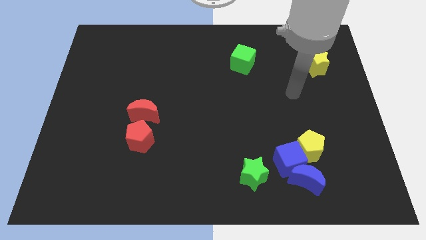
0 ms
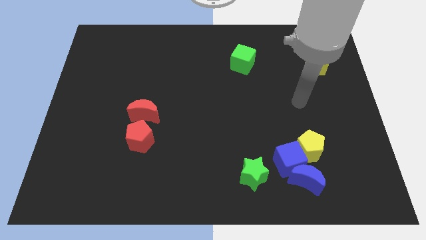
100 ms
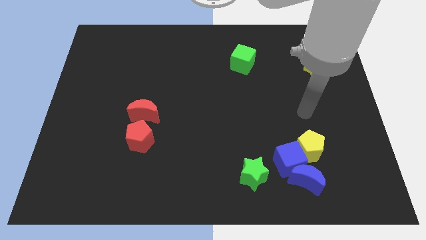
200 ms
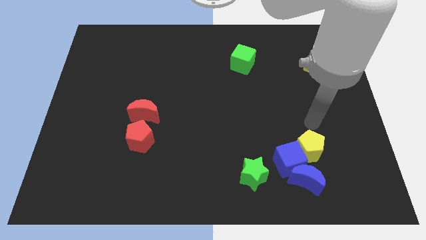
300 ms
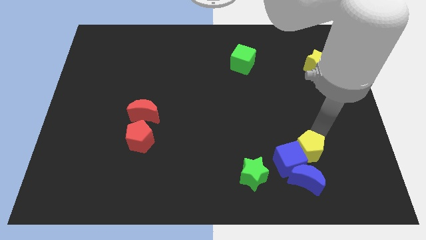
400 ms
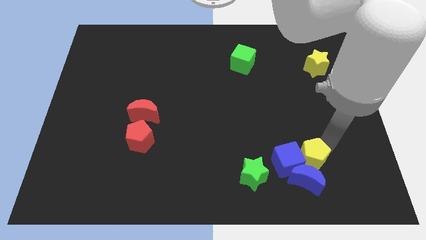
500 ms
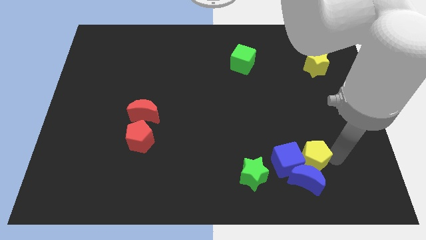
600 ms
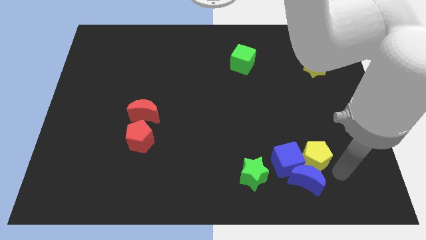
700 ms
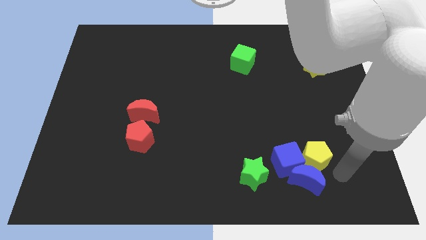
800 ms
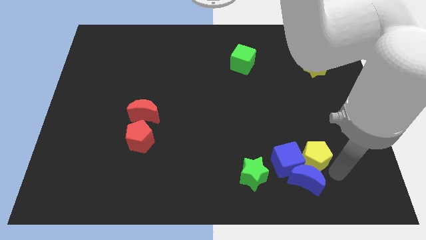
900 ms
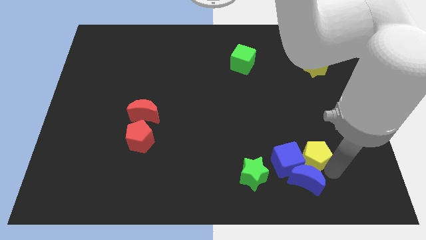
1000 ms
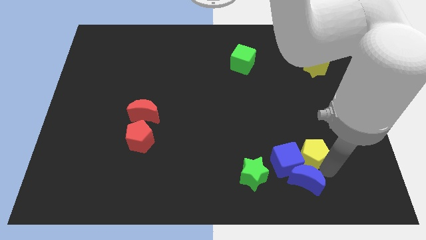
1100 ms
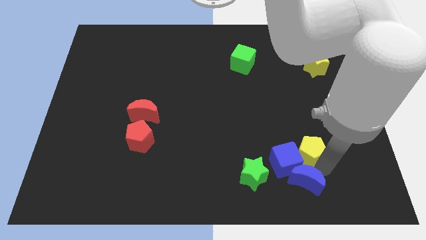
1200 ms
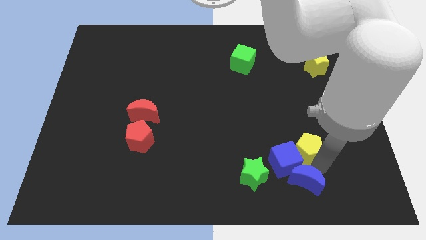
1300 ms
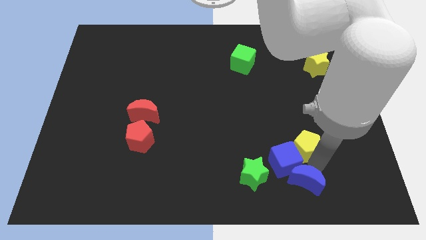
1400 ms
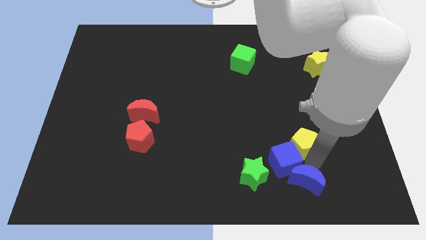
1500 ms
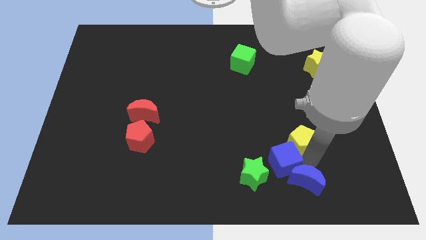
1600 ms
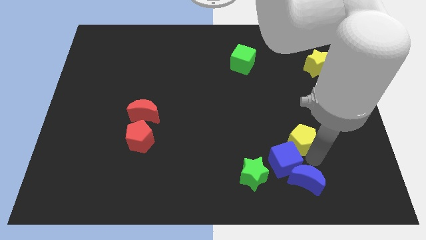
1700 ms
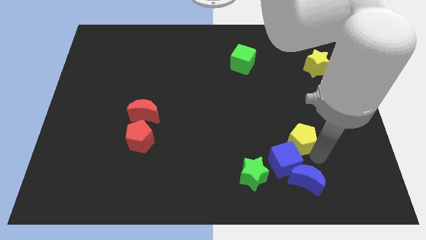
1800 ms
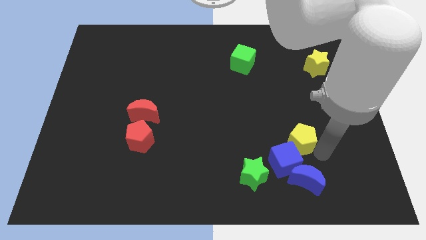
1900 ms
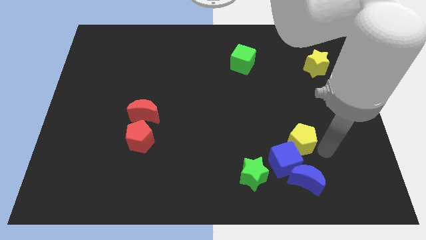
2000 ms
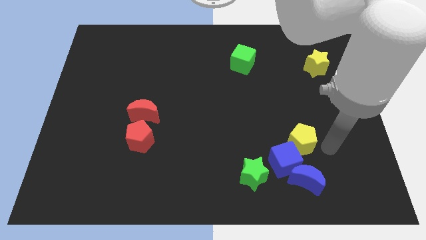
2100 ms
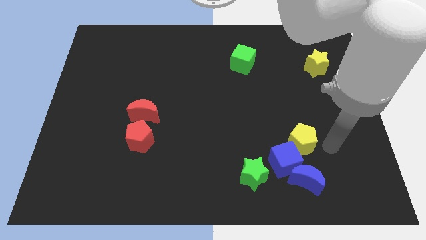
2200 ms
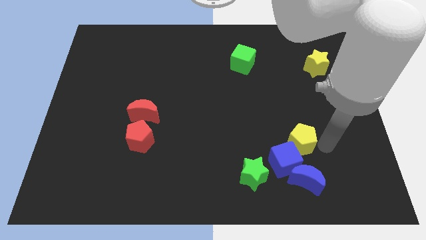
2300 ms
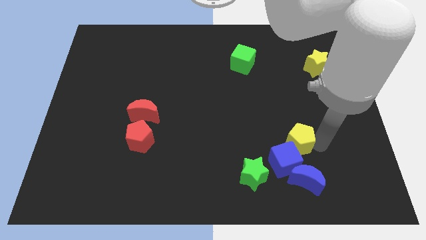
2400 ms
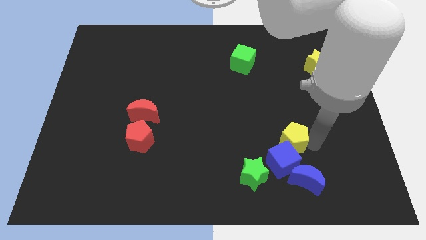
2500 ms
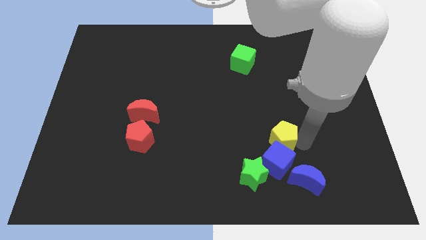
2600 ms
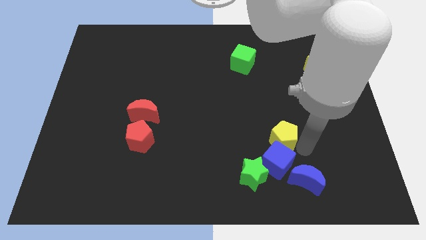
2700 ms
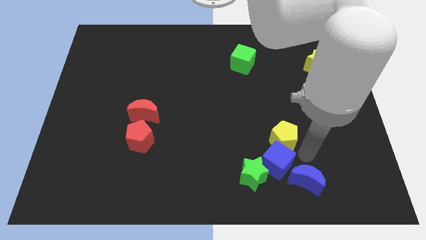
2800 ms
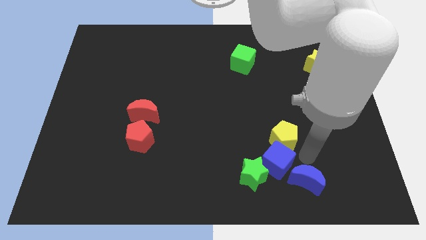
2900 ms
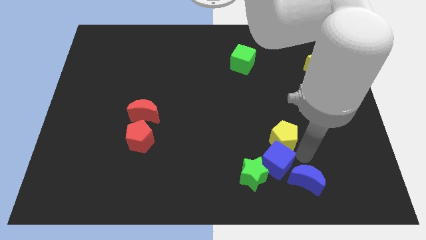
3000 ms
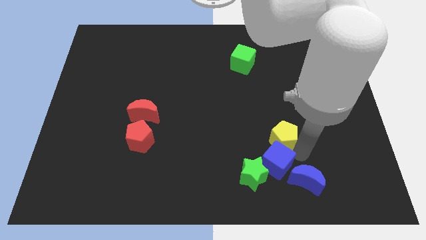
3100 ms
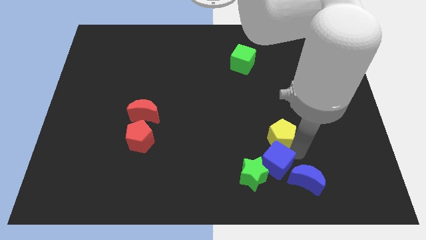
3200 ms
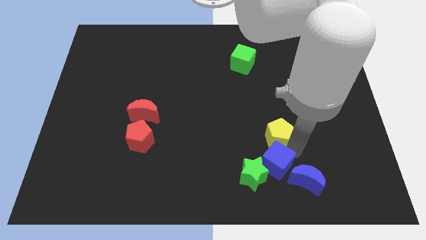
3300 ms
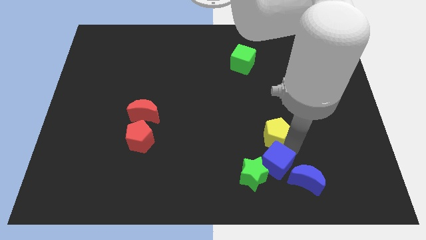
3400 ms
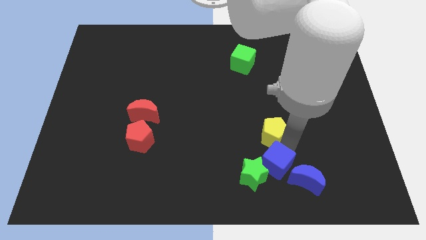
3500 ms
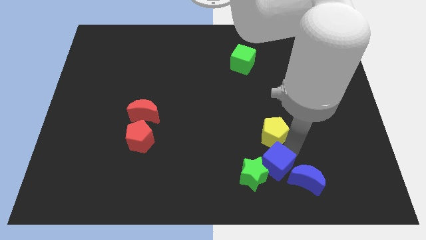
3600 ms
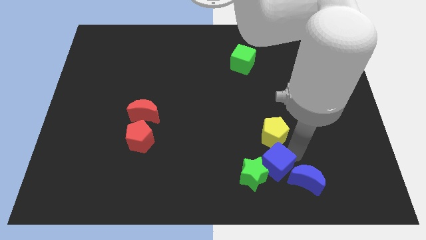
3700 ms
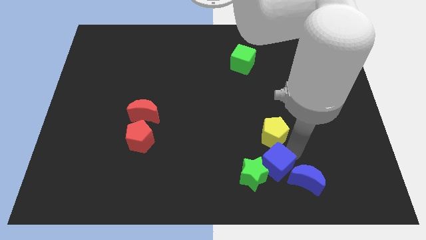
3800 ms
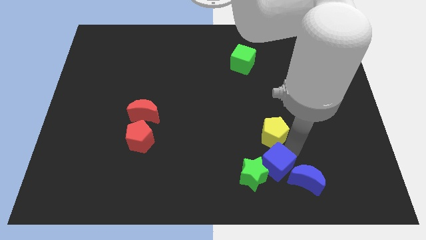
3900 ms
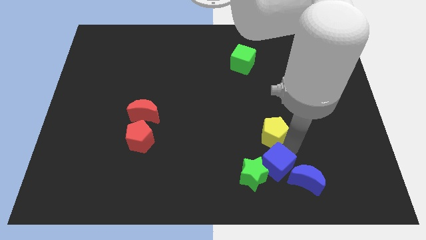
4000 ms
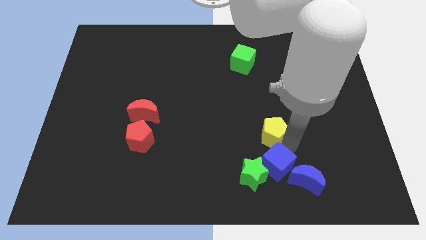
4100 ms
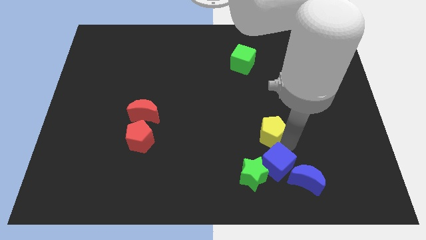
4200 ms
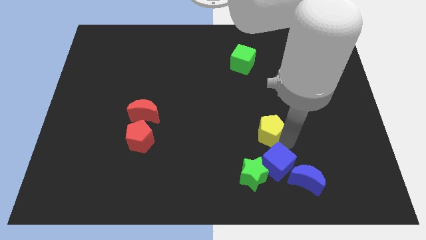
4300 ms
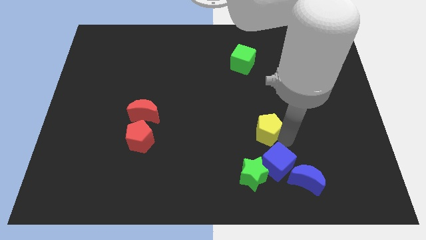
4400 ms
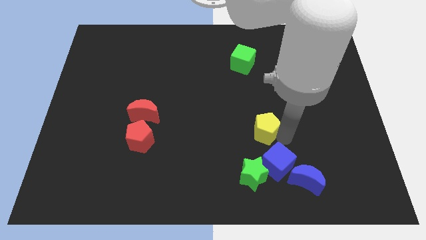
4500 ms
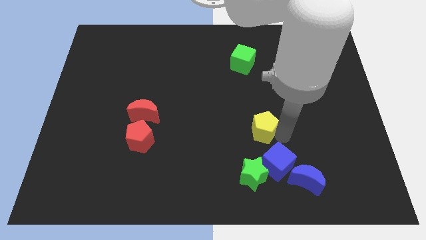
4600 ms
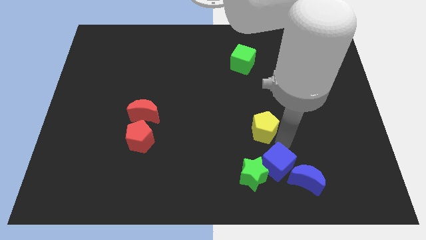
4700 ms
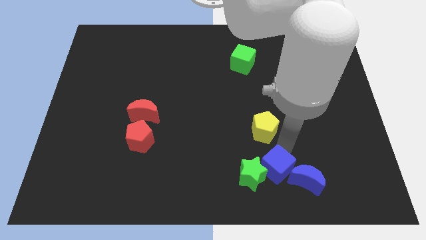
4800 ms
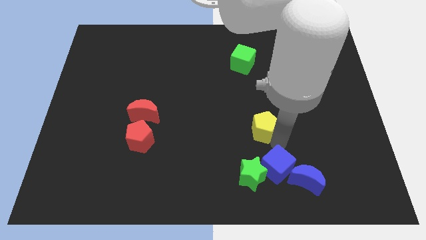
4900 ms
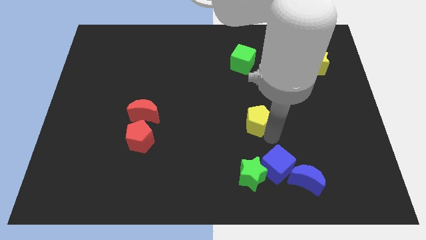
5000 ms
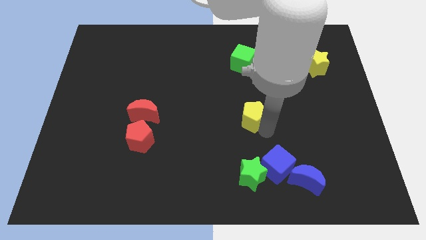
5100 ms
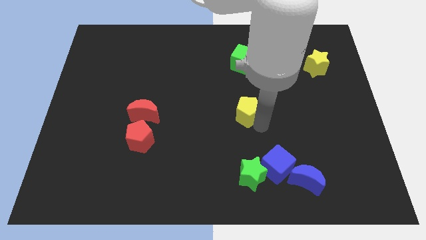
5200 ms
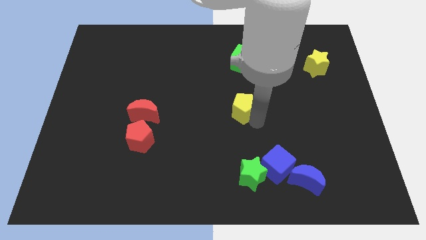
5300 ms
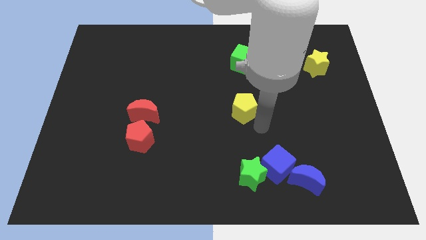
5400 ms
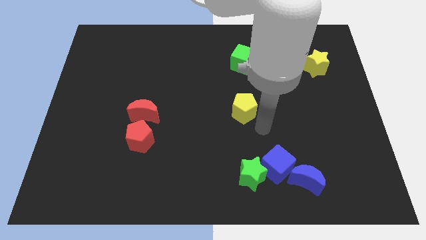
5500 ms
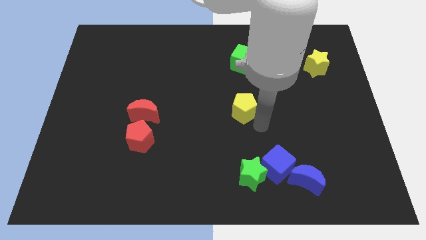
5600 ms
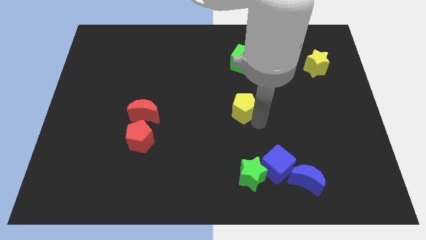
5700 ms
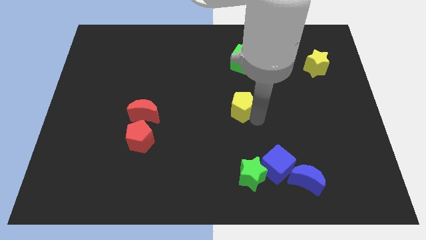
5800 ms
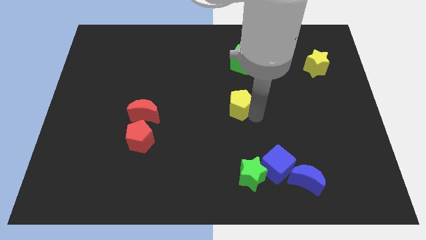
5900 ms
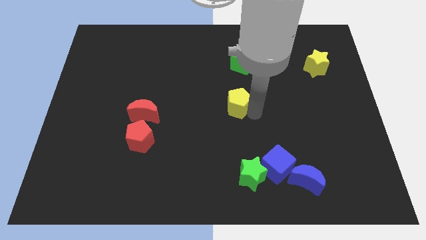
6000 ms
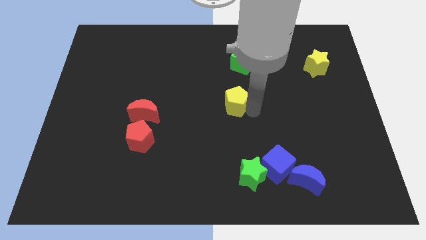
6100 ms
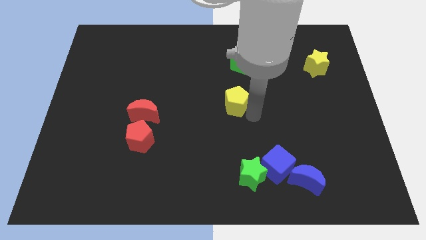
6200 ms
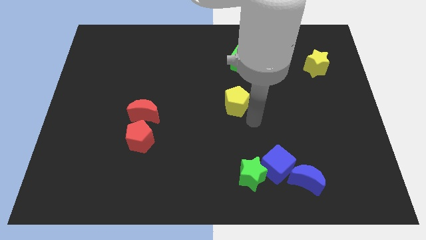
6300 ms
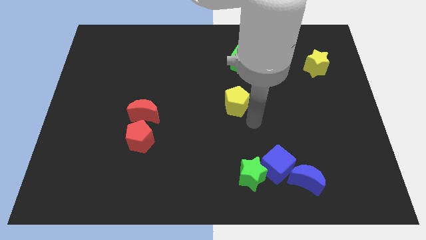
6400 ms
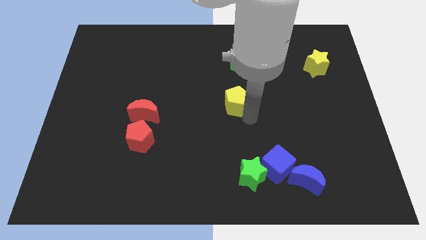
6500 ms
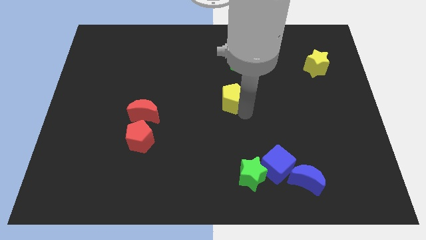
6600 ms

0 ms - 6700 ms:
slide the yellow pentagon upwards and then to the left

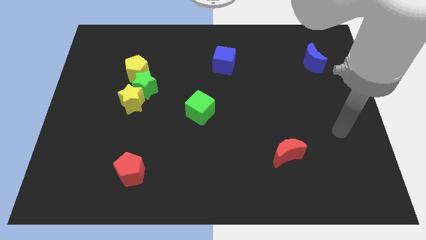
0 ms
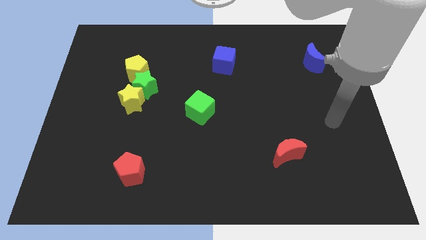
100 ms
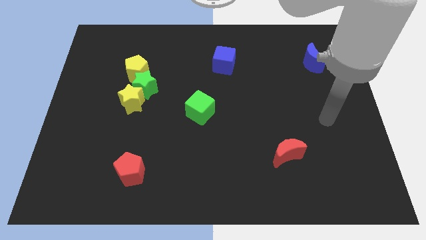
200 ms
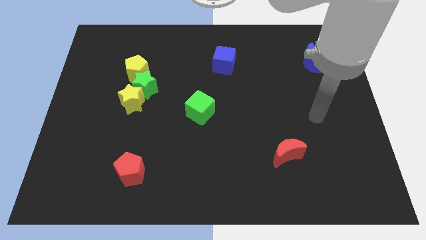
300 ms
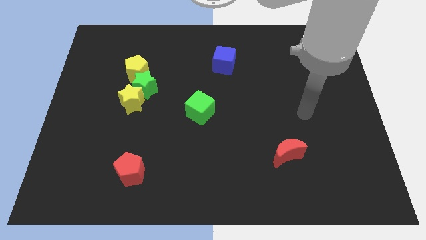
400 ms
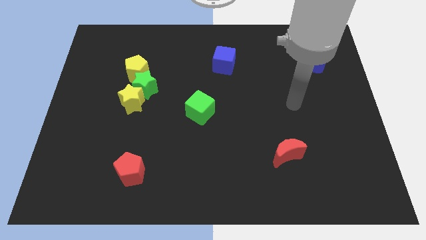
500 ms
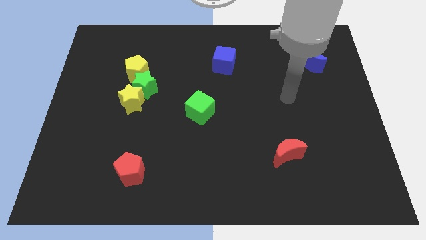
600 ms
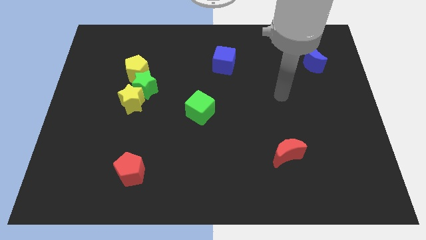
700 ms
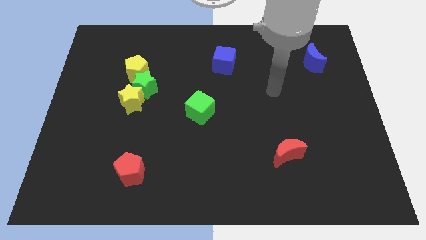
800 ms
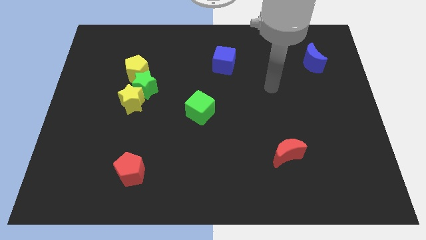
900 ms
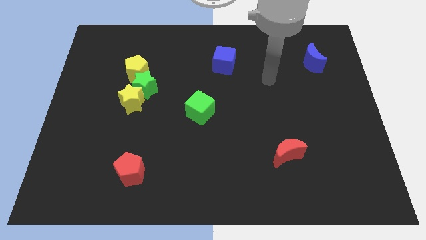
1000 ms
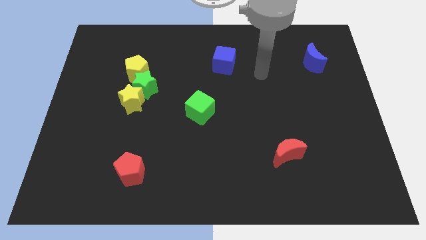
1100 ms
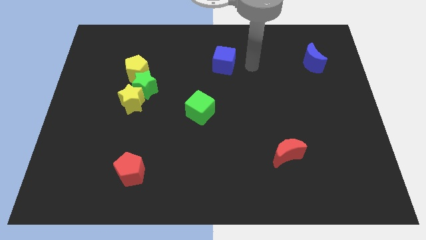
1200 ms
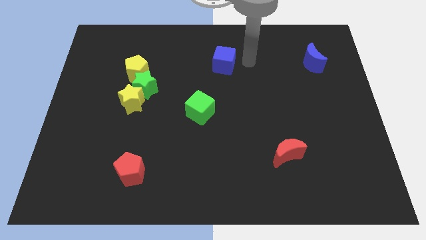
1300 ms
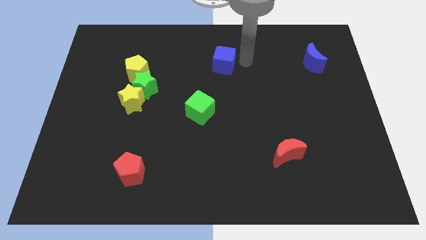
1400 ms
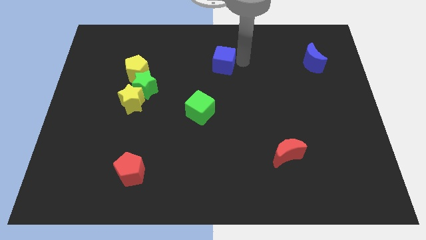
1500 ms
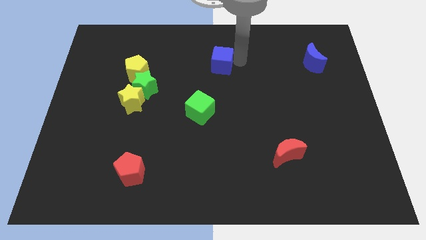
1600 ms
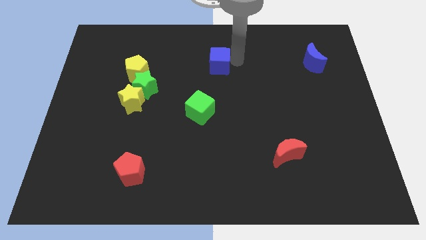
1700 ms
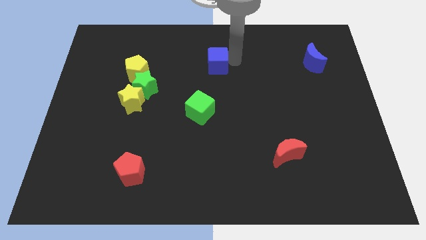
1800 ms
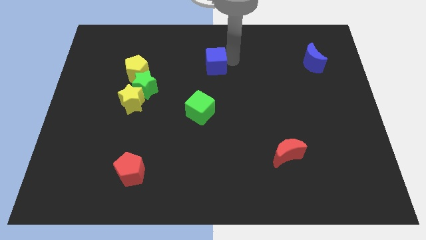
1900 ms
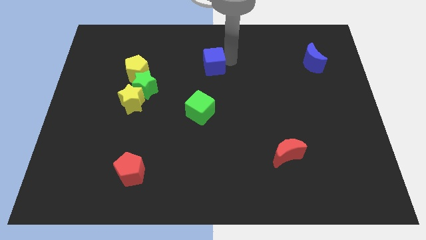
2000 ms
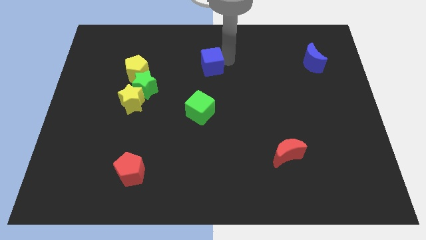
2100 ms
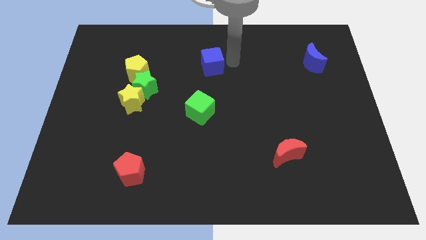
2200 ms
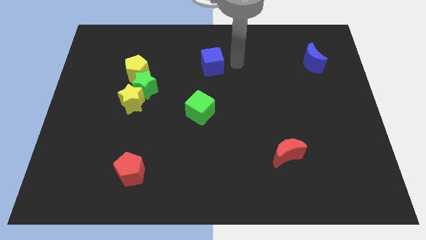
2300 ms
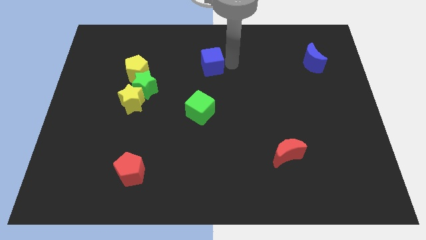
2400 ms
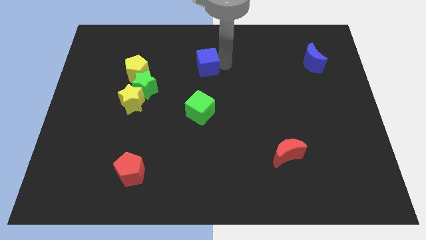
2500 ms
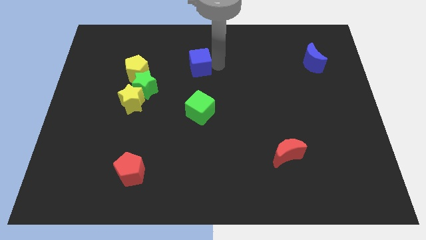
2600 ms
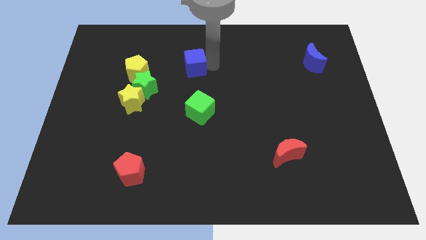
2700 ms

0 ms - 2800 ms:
move the blue cube to the left somewhat
